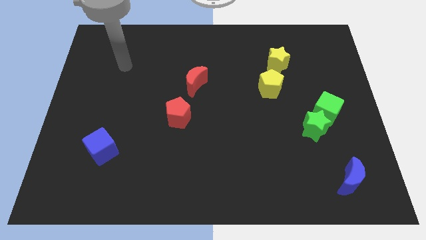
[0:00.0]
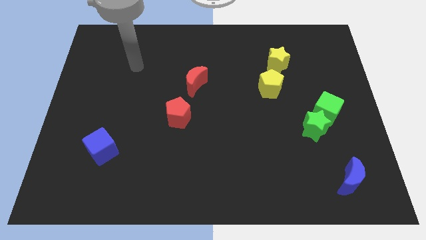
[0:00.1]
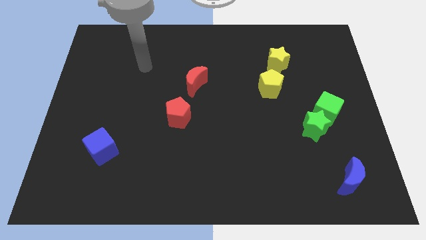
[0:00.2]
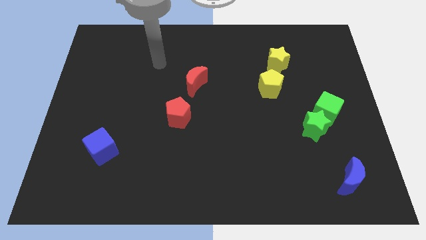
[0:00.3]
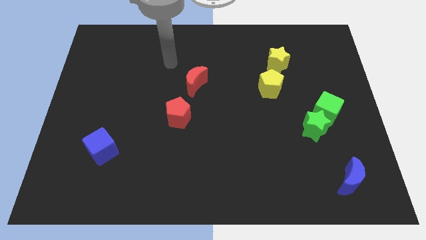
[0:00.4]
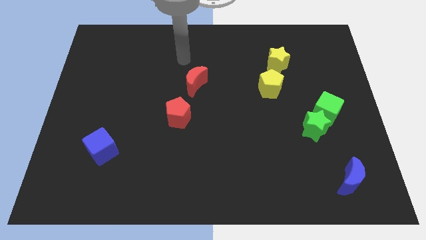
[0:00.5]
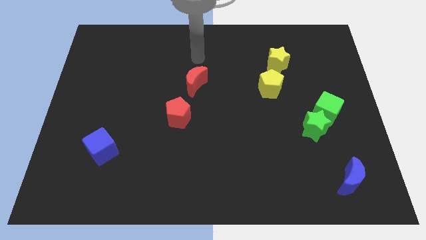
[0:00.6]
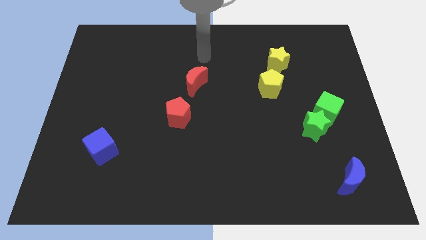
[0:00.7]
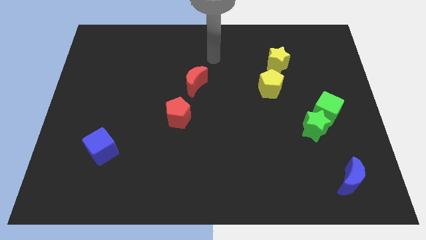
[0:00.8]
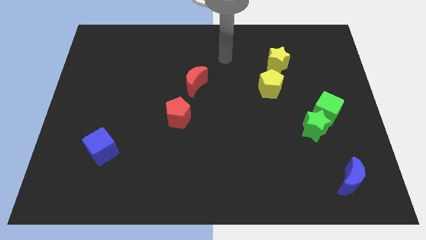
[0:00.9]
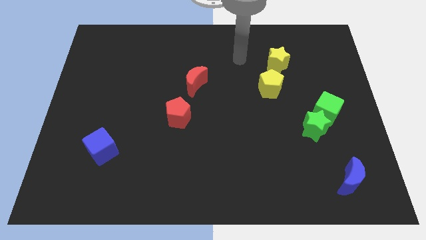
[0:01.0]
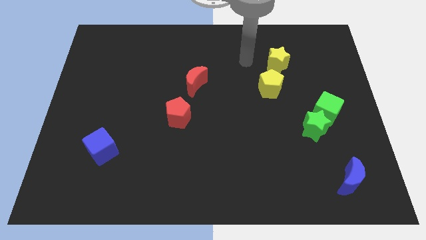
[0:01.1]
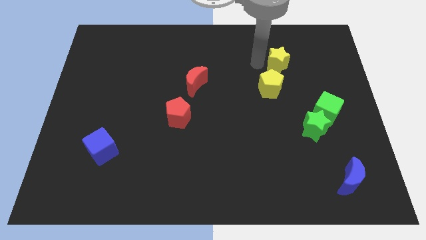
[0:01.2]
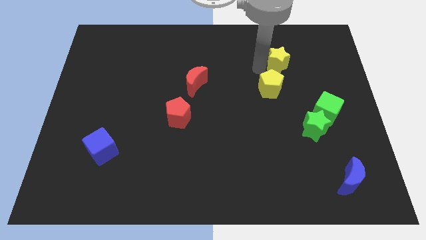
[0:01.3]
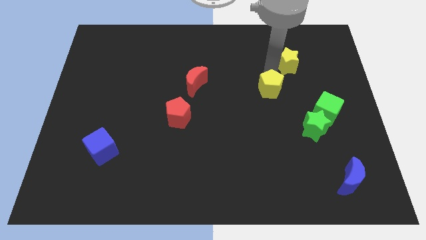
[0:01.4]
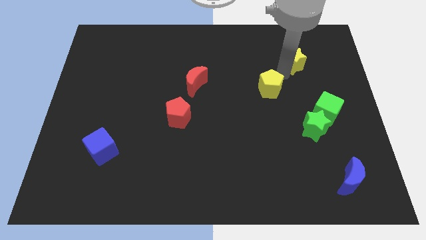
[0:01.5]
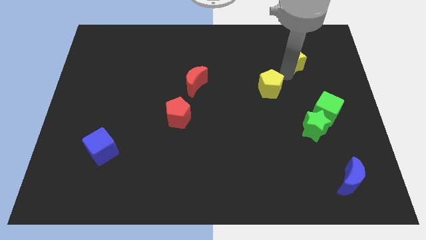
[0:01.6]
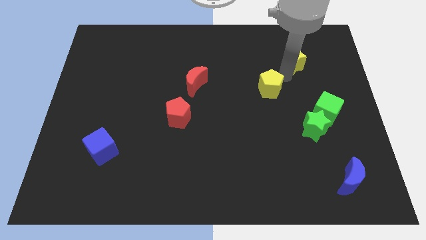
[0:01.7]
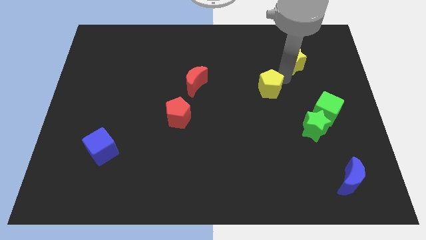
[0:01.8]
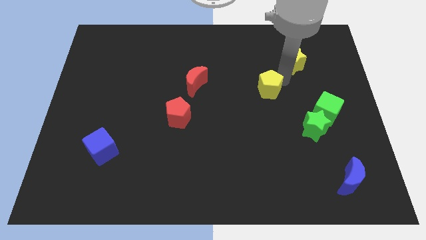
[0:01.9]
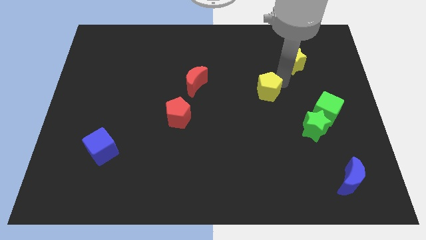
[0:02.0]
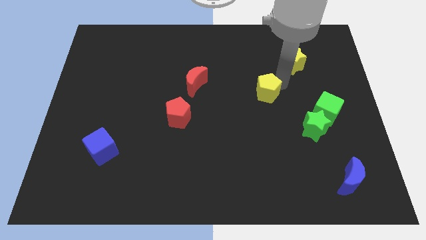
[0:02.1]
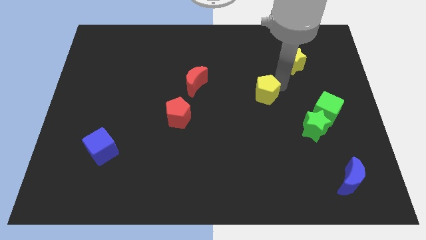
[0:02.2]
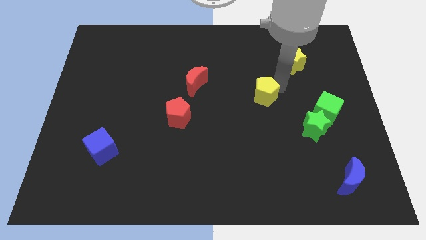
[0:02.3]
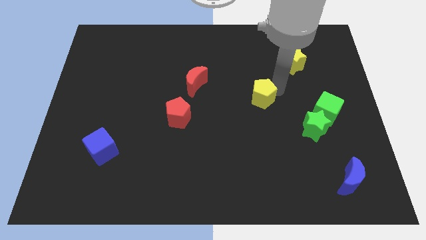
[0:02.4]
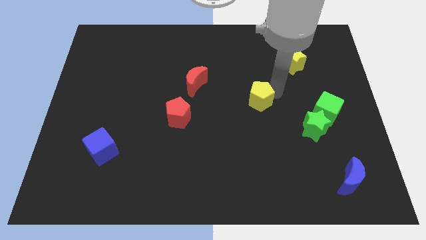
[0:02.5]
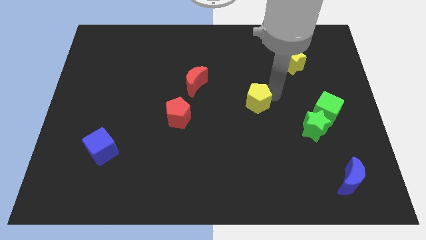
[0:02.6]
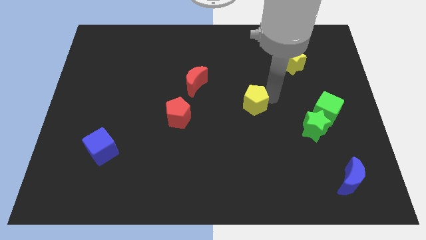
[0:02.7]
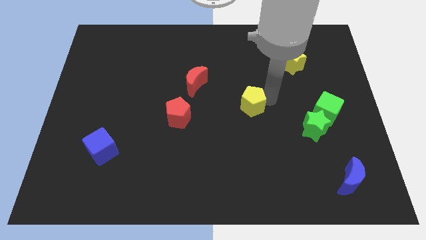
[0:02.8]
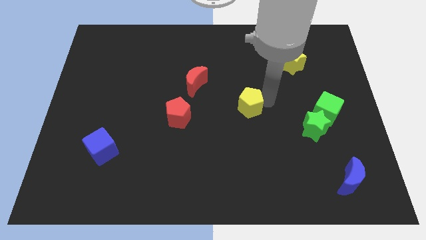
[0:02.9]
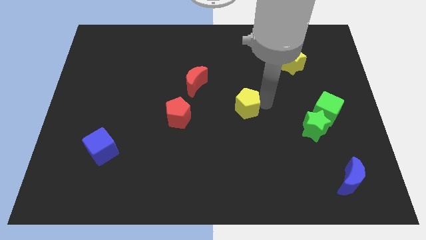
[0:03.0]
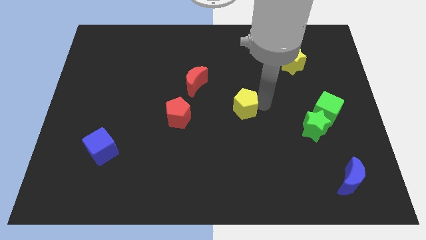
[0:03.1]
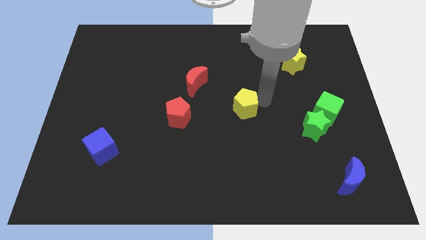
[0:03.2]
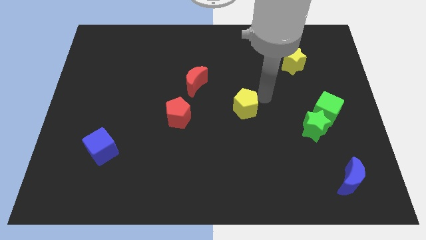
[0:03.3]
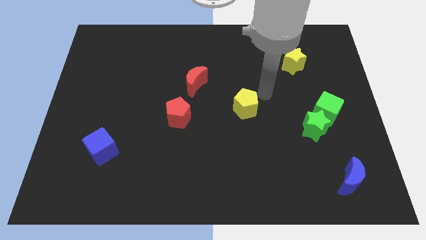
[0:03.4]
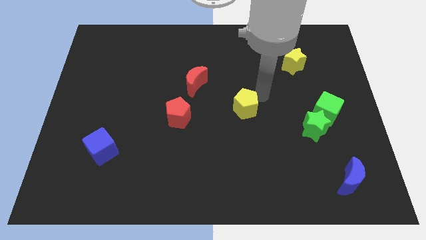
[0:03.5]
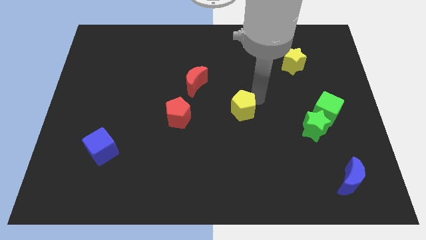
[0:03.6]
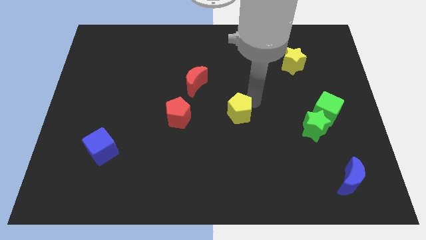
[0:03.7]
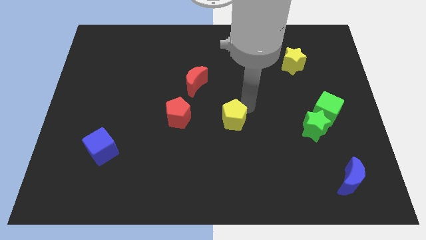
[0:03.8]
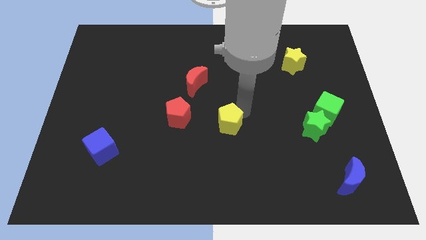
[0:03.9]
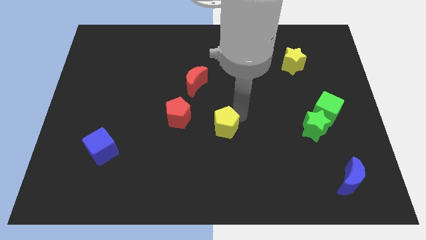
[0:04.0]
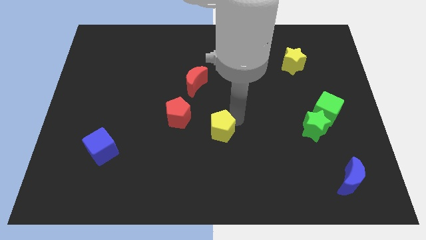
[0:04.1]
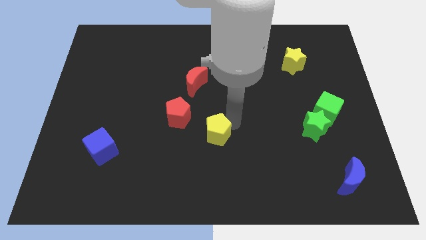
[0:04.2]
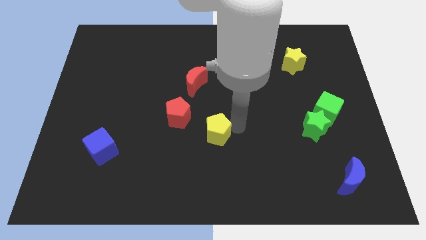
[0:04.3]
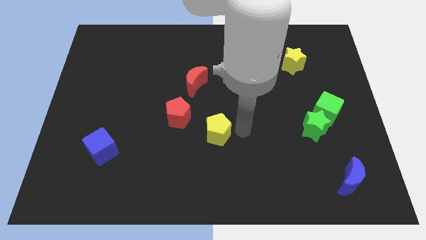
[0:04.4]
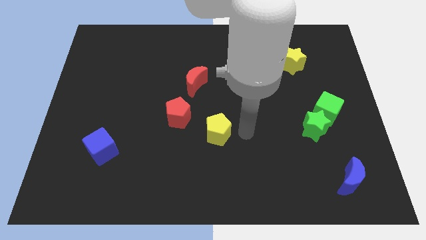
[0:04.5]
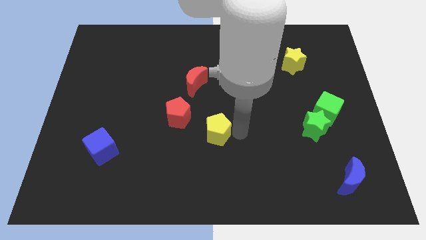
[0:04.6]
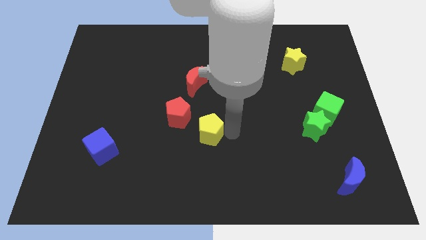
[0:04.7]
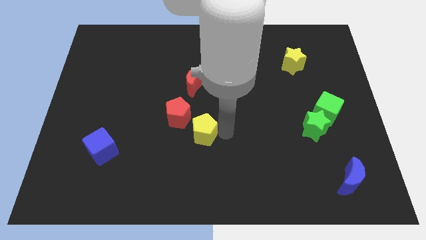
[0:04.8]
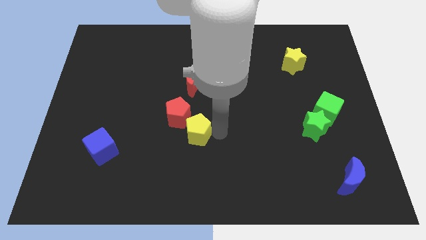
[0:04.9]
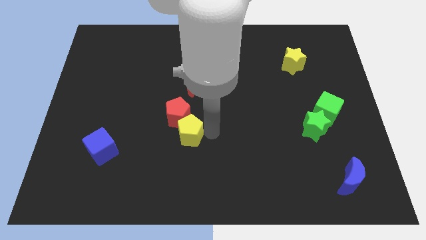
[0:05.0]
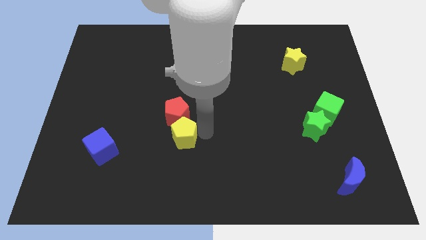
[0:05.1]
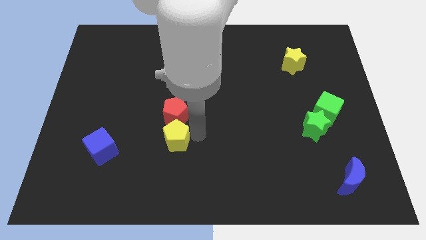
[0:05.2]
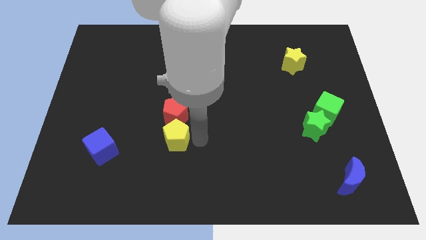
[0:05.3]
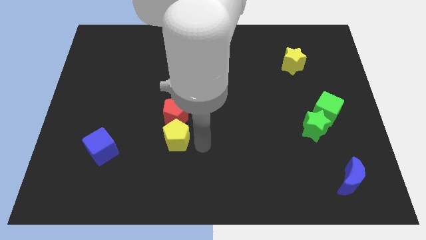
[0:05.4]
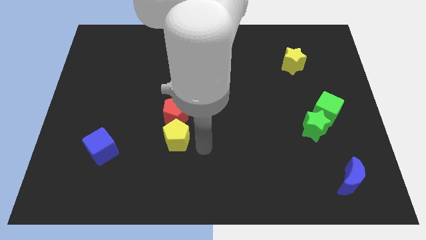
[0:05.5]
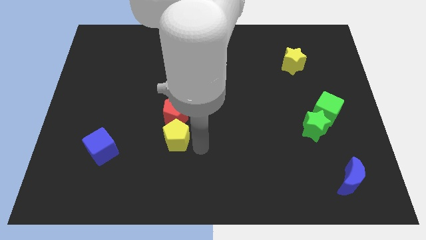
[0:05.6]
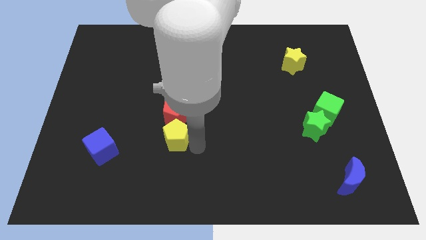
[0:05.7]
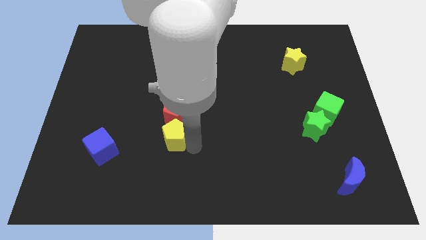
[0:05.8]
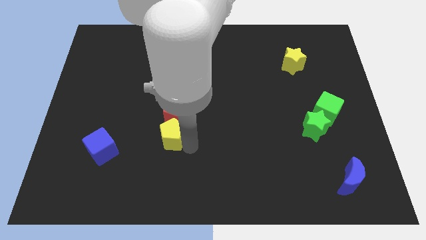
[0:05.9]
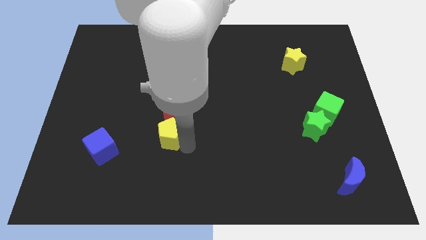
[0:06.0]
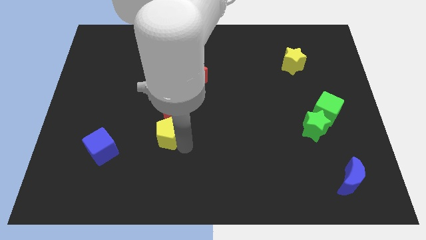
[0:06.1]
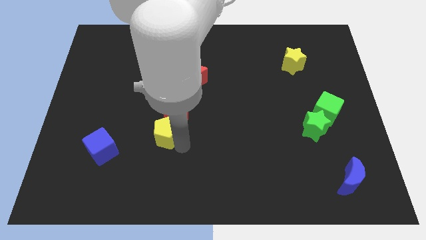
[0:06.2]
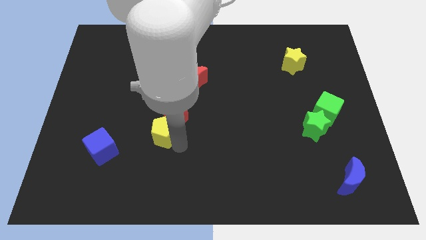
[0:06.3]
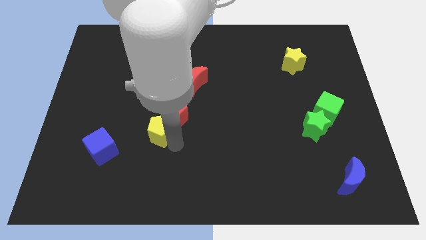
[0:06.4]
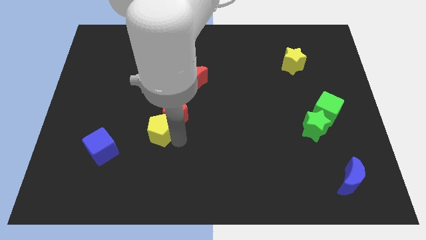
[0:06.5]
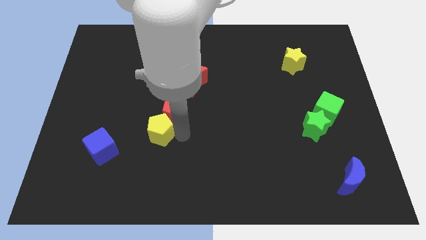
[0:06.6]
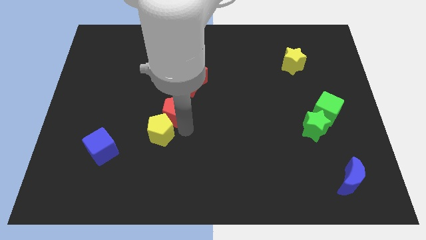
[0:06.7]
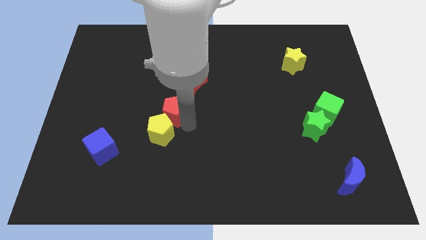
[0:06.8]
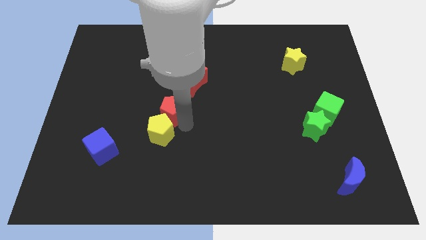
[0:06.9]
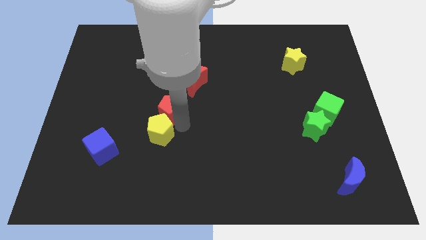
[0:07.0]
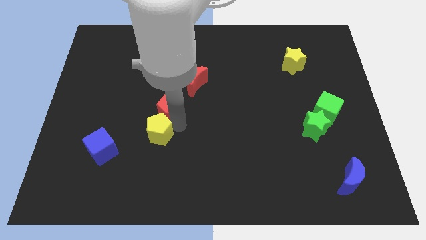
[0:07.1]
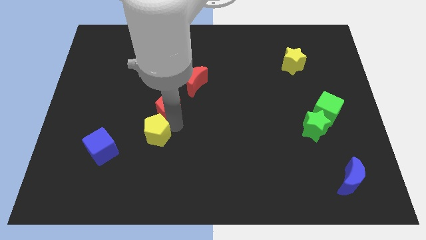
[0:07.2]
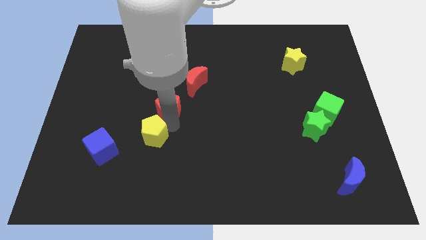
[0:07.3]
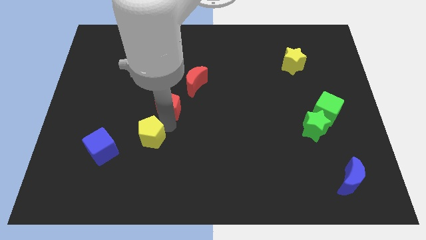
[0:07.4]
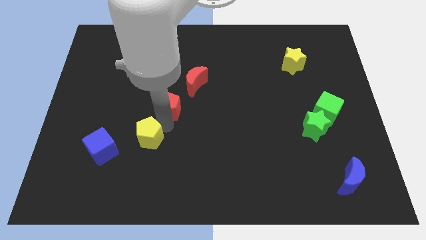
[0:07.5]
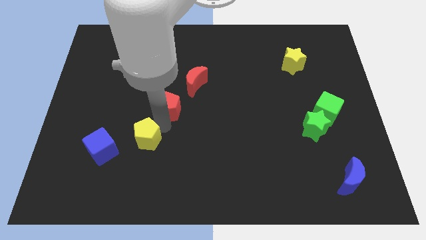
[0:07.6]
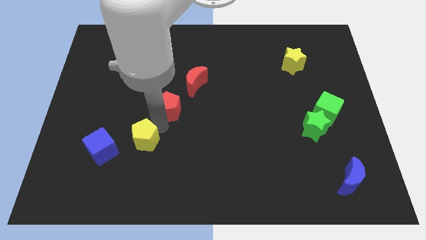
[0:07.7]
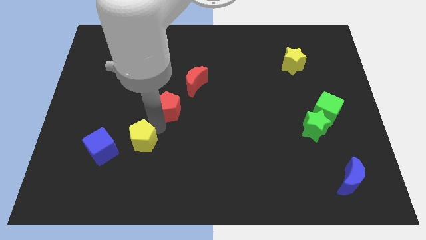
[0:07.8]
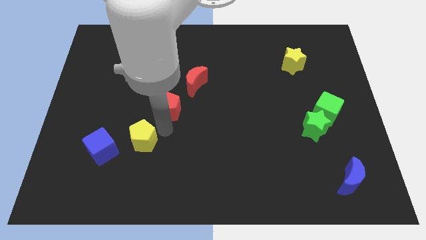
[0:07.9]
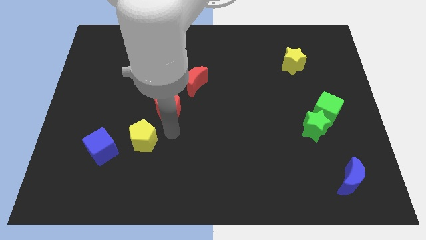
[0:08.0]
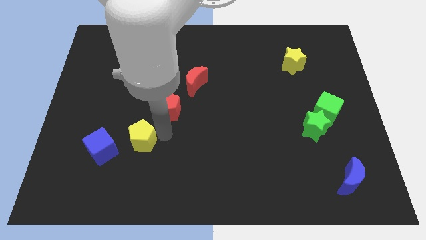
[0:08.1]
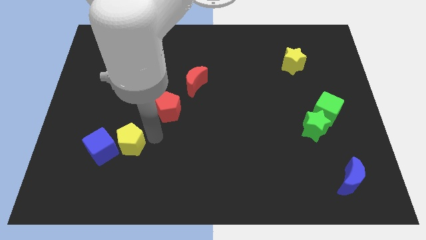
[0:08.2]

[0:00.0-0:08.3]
slide the yellow pentagon next to the blue cube
